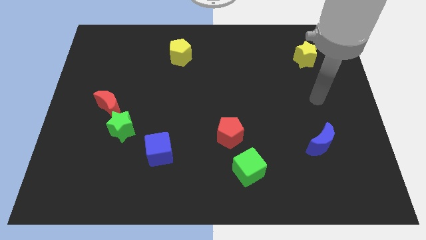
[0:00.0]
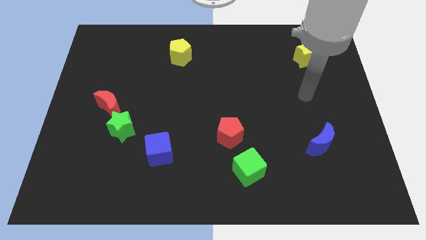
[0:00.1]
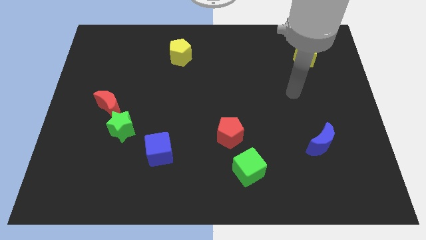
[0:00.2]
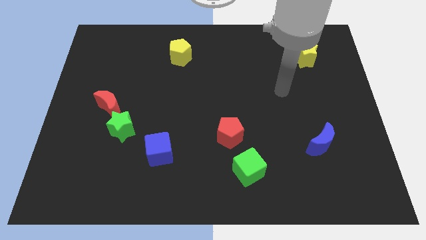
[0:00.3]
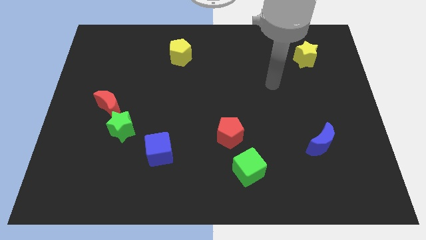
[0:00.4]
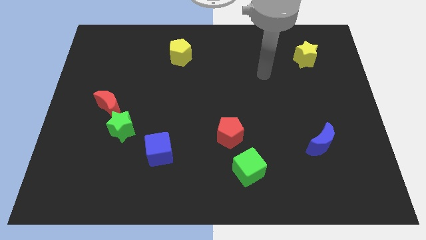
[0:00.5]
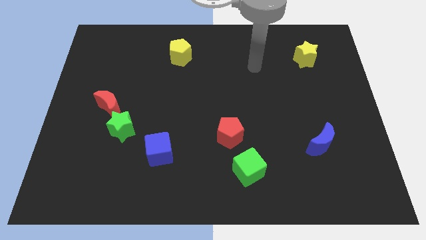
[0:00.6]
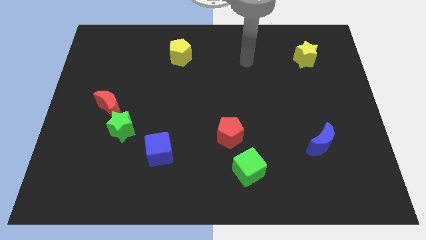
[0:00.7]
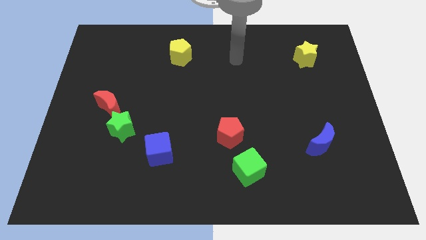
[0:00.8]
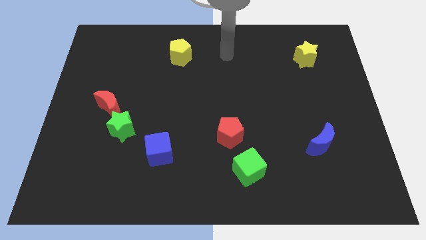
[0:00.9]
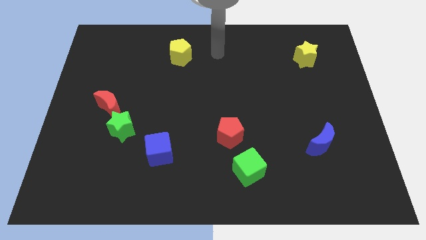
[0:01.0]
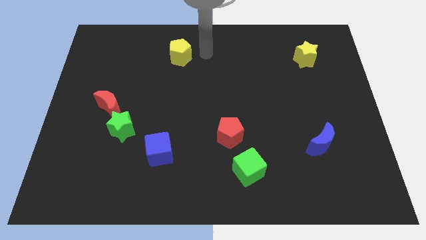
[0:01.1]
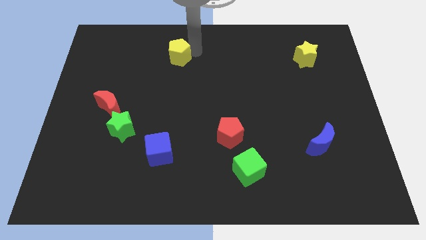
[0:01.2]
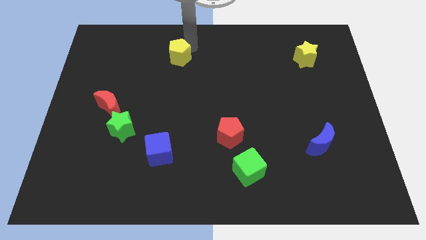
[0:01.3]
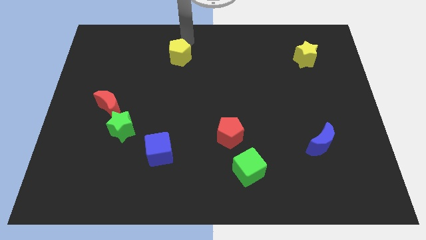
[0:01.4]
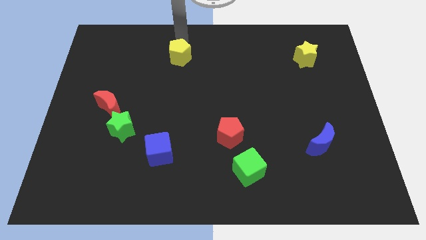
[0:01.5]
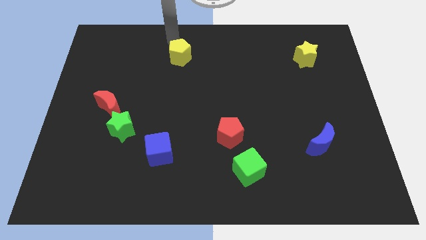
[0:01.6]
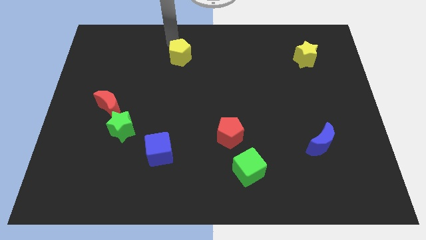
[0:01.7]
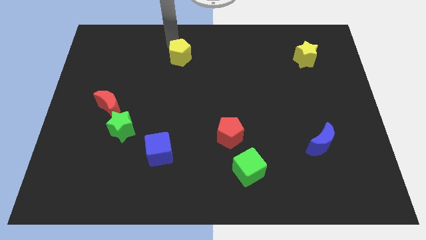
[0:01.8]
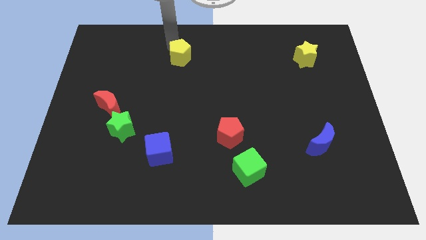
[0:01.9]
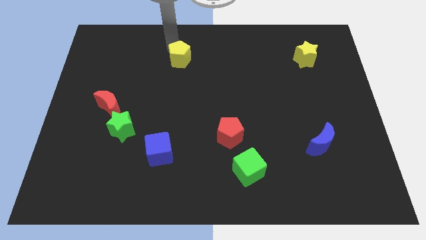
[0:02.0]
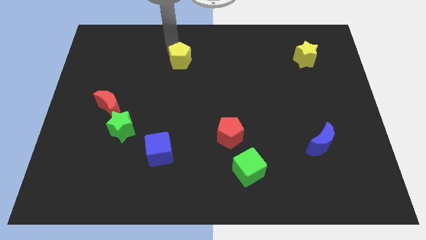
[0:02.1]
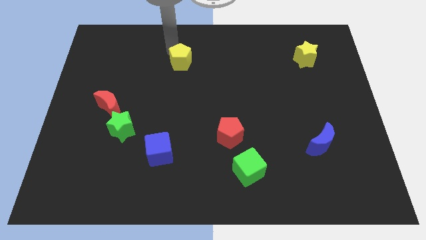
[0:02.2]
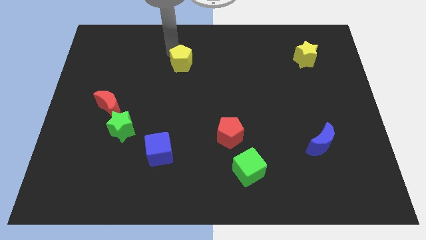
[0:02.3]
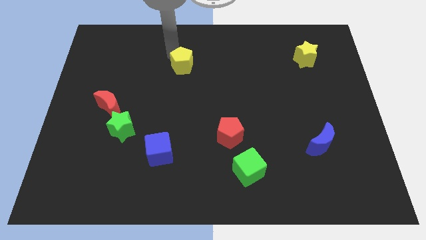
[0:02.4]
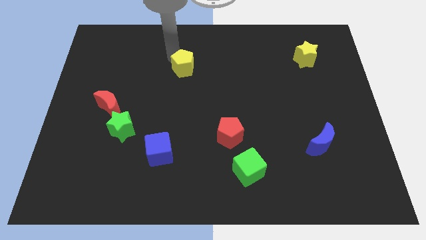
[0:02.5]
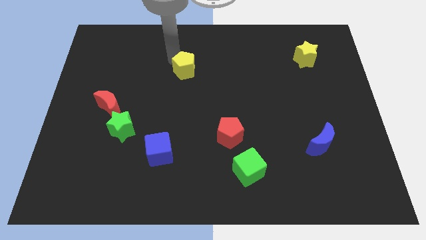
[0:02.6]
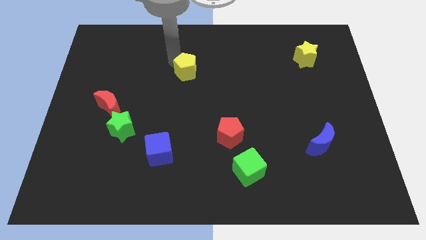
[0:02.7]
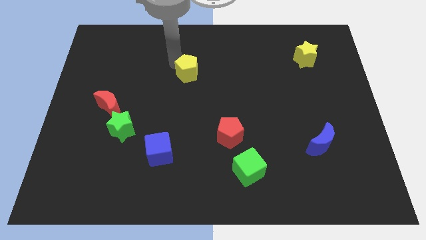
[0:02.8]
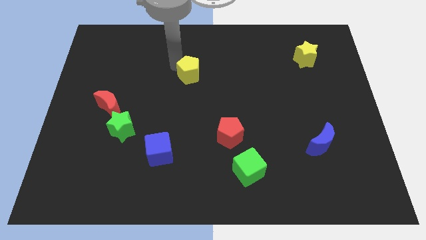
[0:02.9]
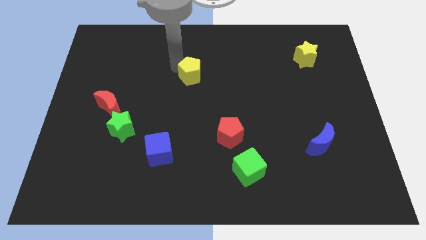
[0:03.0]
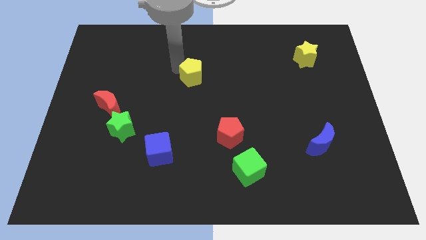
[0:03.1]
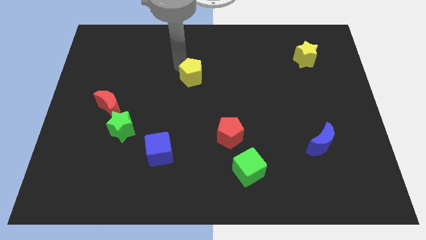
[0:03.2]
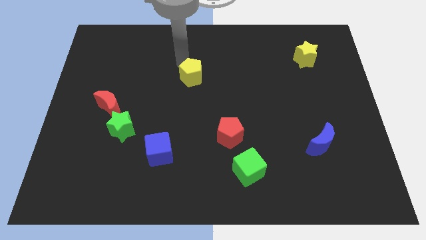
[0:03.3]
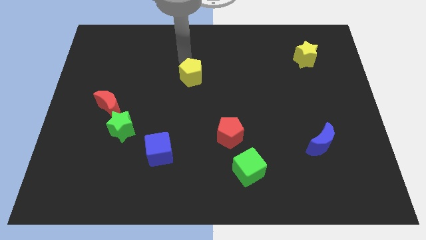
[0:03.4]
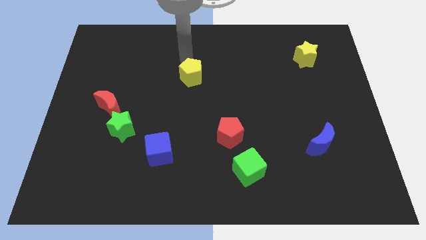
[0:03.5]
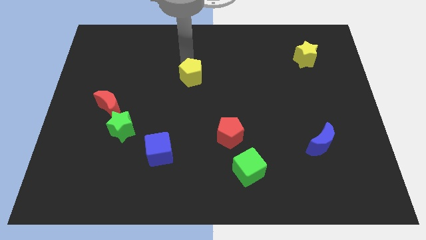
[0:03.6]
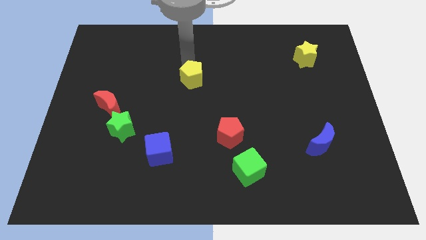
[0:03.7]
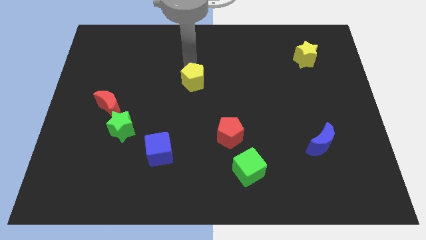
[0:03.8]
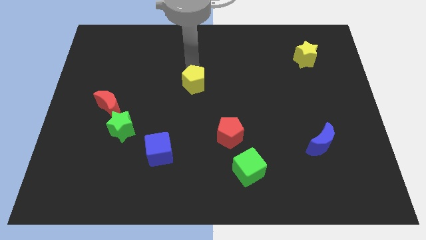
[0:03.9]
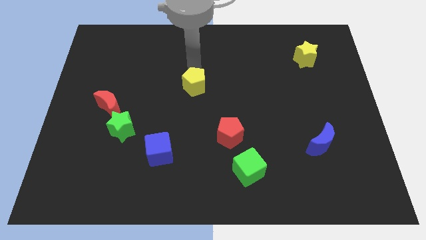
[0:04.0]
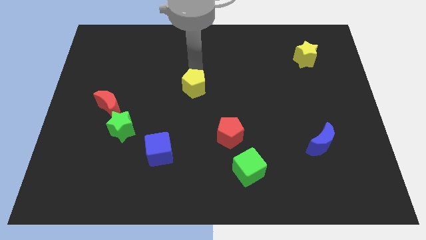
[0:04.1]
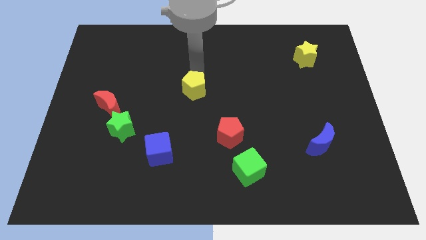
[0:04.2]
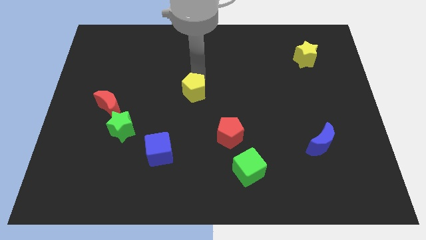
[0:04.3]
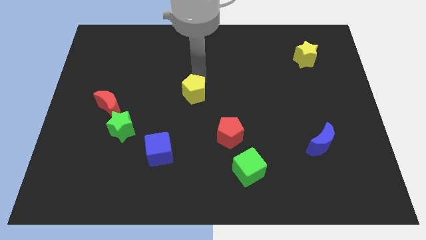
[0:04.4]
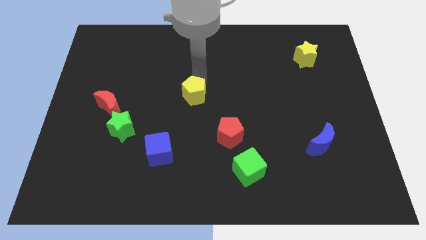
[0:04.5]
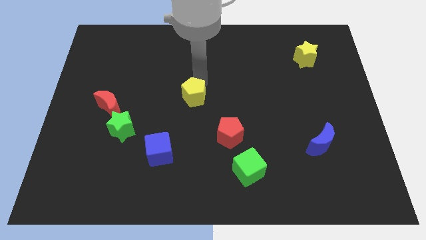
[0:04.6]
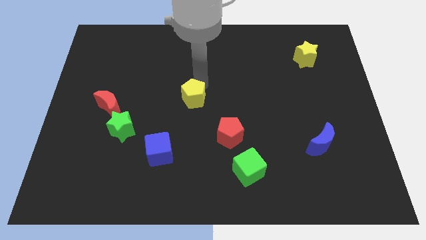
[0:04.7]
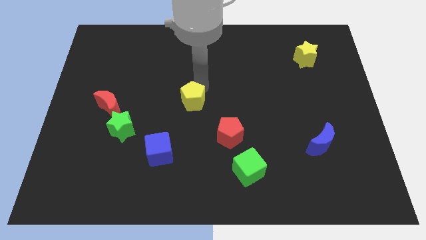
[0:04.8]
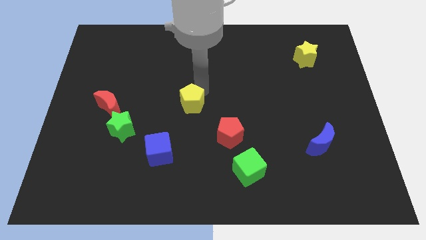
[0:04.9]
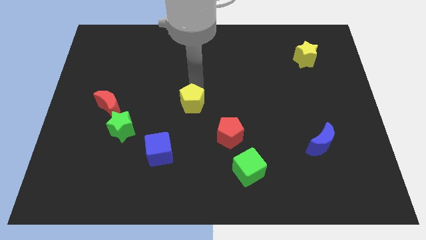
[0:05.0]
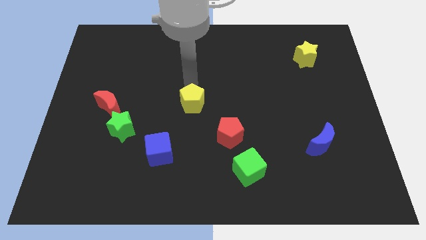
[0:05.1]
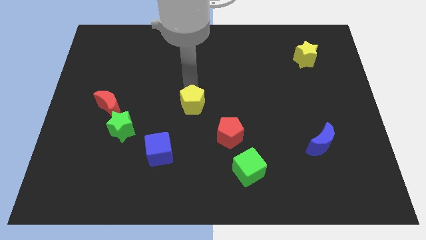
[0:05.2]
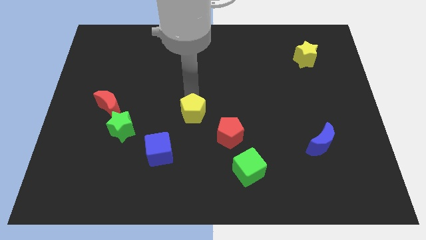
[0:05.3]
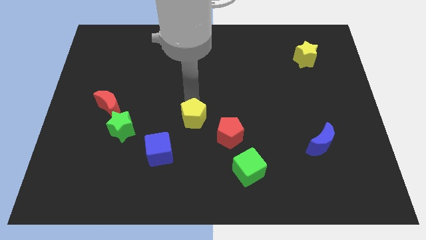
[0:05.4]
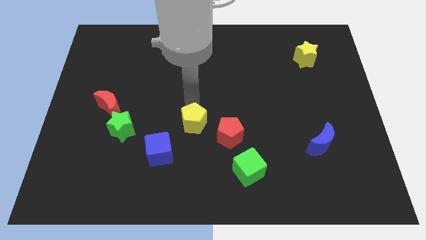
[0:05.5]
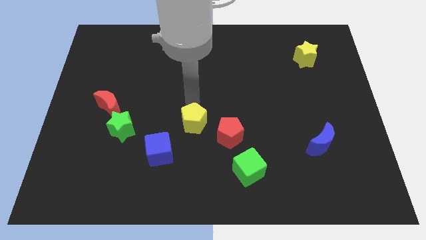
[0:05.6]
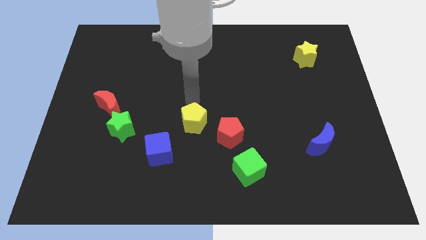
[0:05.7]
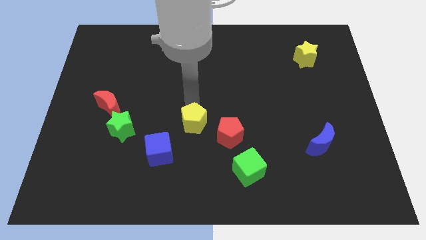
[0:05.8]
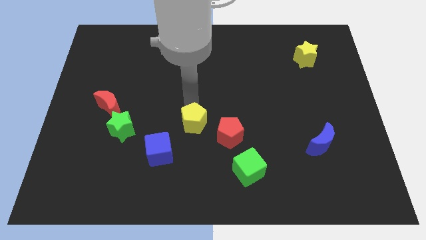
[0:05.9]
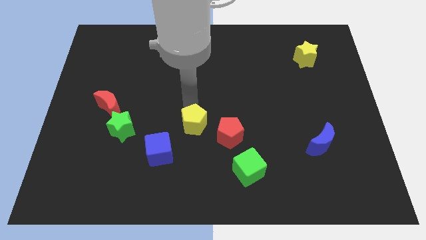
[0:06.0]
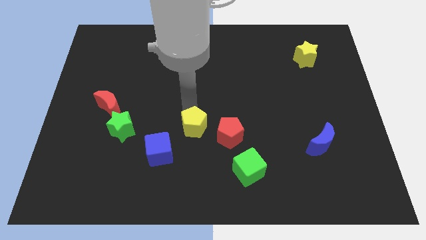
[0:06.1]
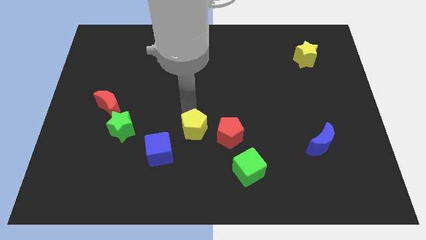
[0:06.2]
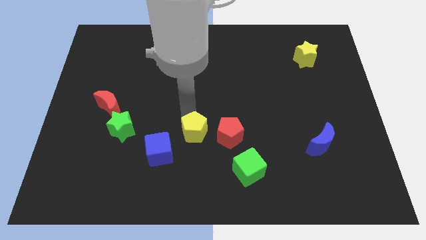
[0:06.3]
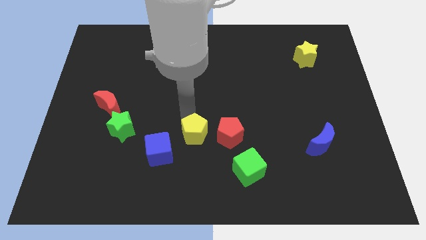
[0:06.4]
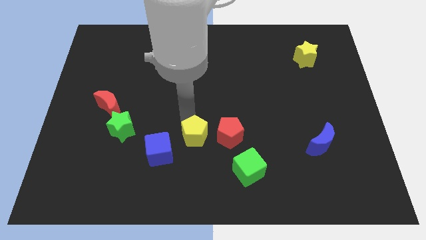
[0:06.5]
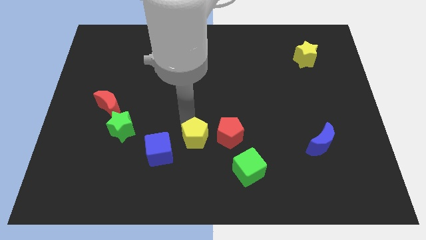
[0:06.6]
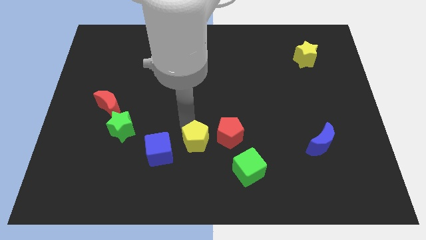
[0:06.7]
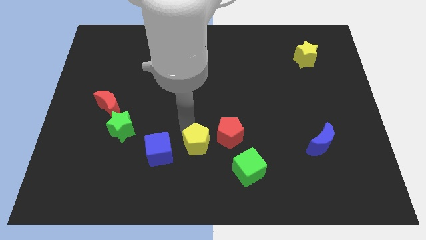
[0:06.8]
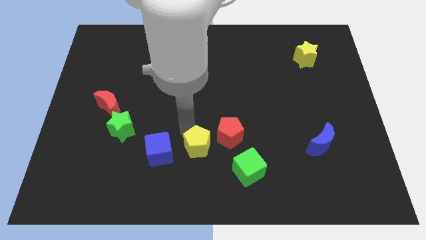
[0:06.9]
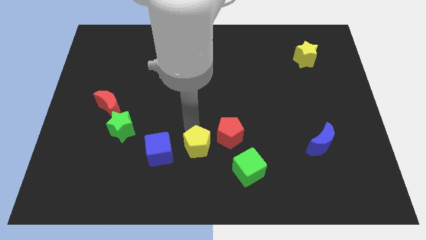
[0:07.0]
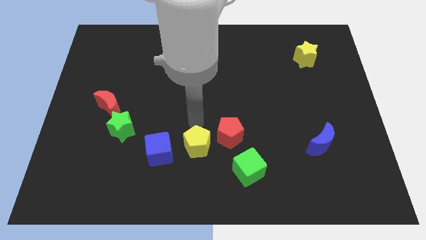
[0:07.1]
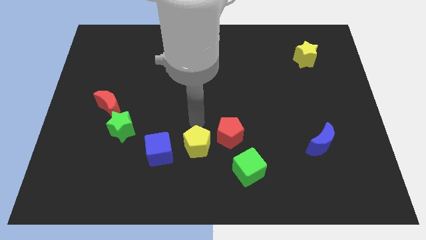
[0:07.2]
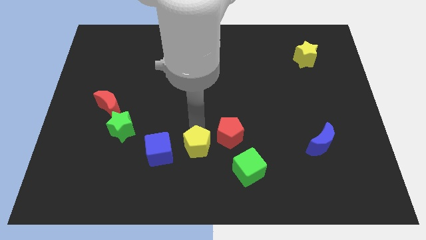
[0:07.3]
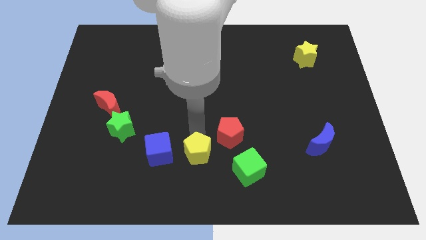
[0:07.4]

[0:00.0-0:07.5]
push the yellow pentagon just left of the green cube
